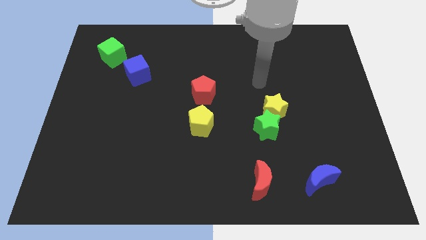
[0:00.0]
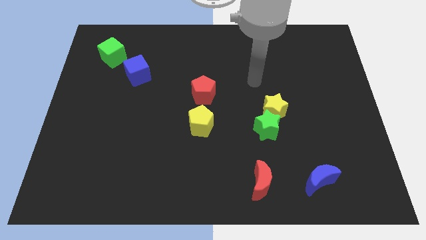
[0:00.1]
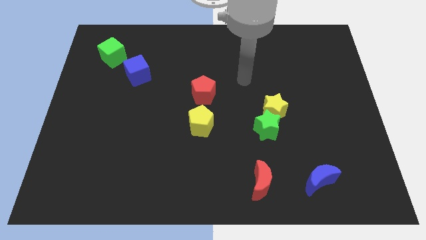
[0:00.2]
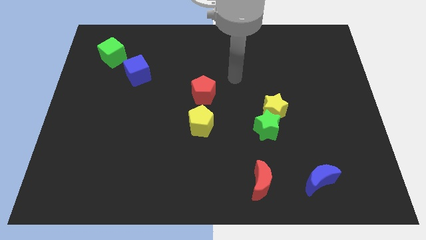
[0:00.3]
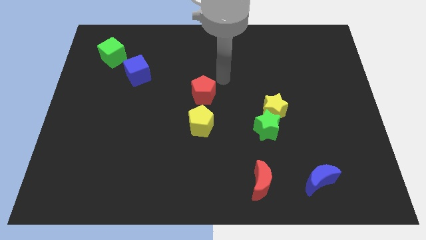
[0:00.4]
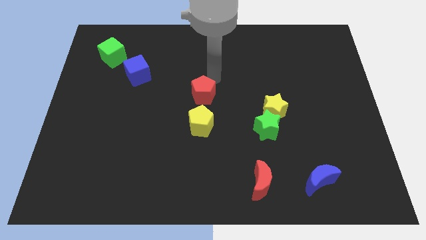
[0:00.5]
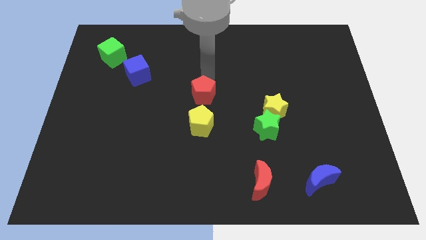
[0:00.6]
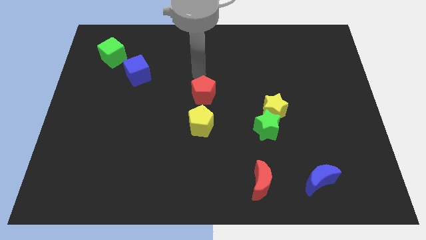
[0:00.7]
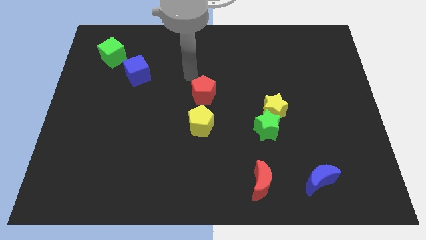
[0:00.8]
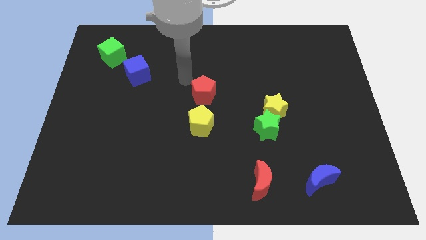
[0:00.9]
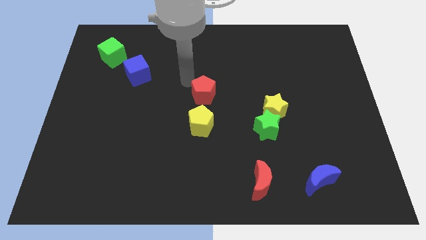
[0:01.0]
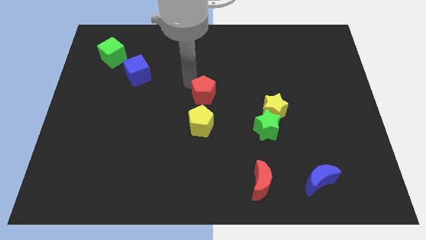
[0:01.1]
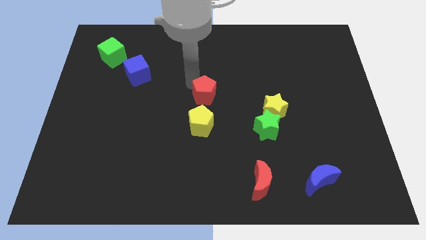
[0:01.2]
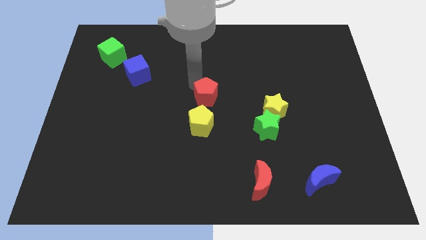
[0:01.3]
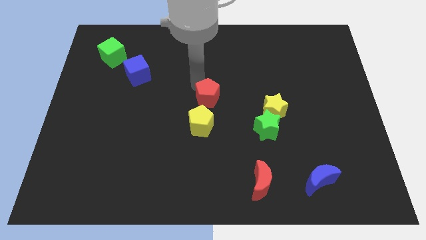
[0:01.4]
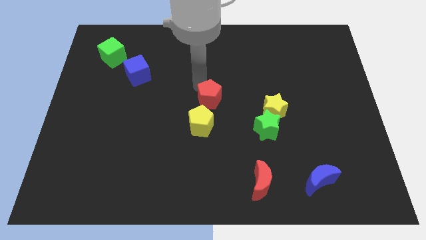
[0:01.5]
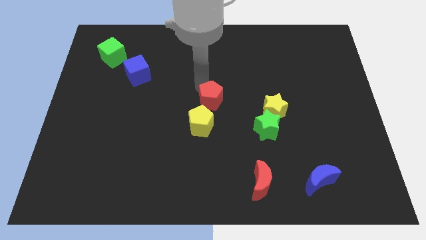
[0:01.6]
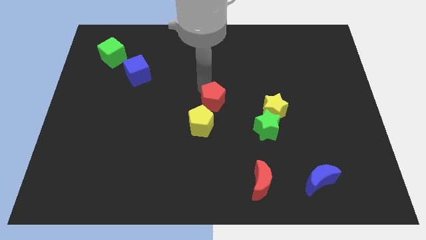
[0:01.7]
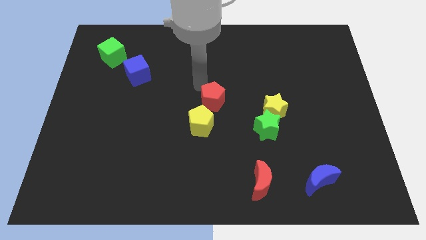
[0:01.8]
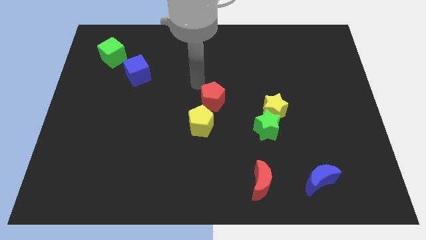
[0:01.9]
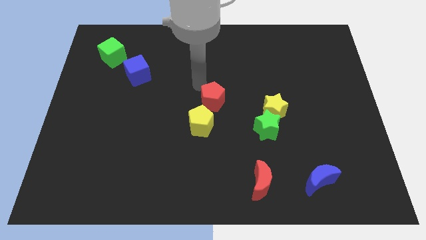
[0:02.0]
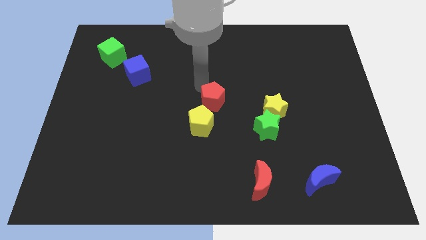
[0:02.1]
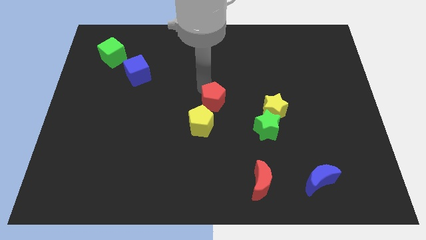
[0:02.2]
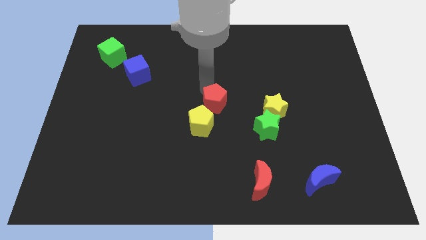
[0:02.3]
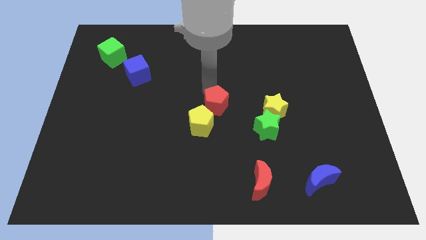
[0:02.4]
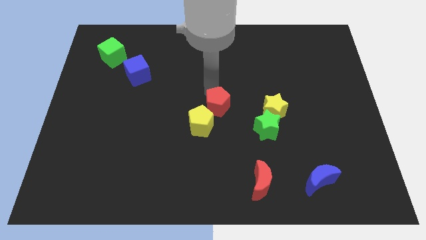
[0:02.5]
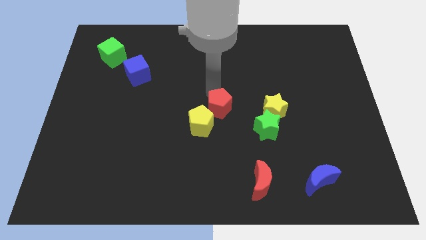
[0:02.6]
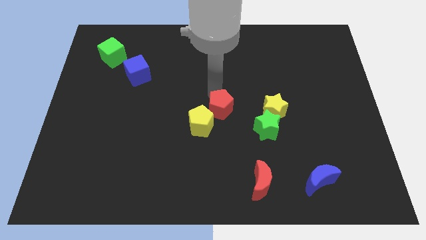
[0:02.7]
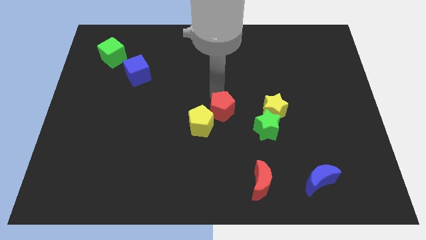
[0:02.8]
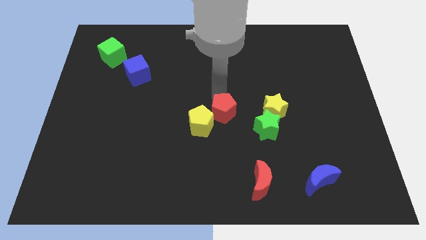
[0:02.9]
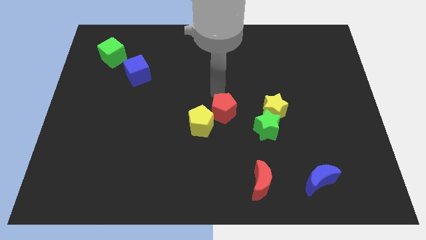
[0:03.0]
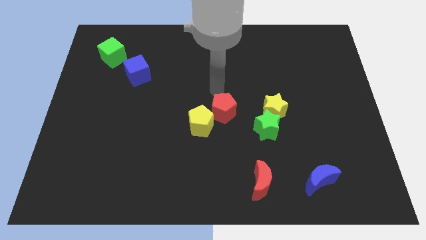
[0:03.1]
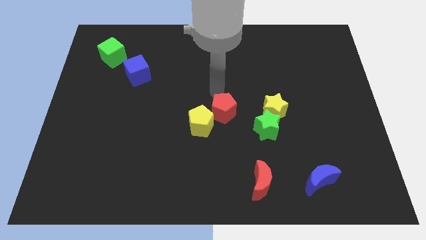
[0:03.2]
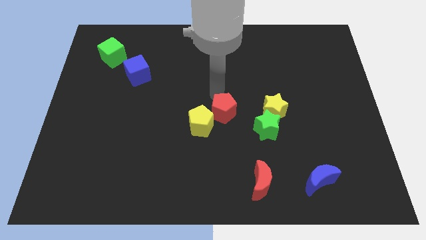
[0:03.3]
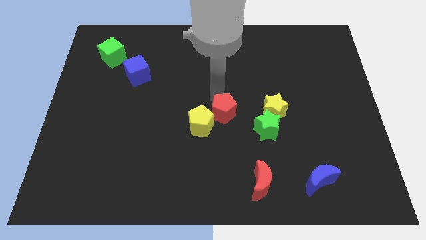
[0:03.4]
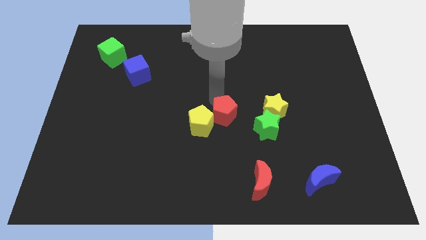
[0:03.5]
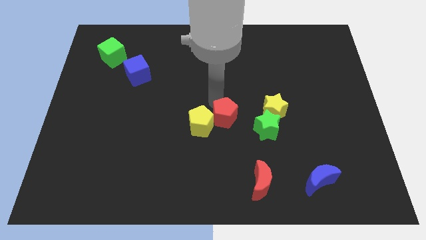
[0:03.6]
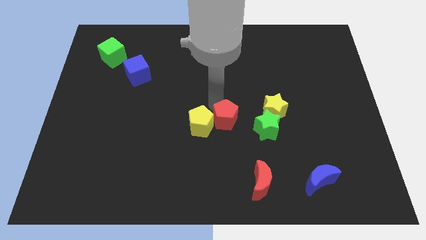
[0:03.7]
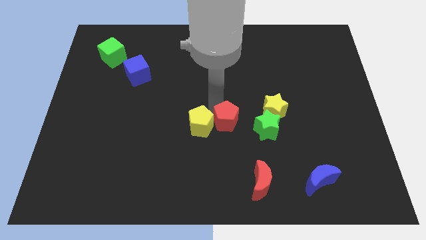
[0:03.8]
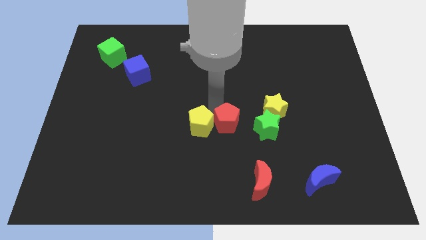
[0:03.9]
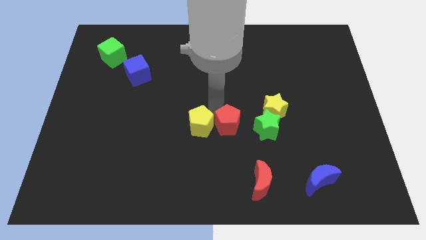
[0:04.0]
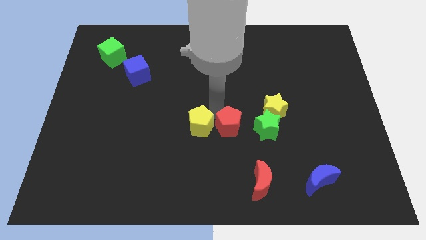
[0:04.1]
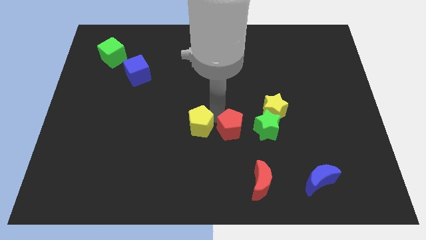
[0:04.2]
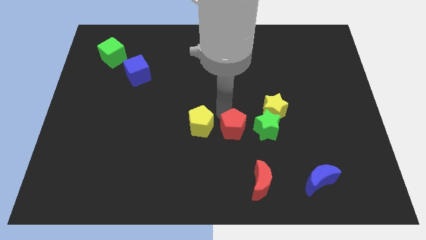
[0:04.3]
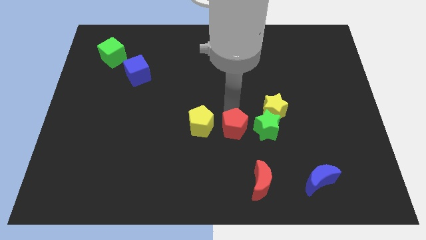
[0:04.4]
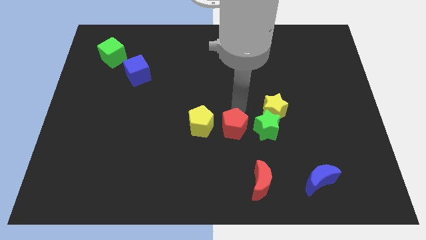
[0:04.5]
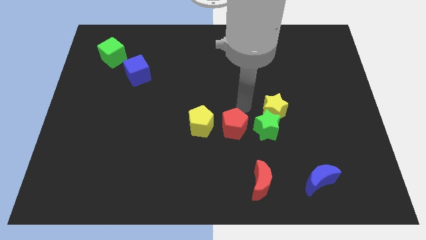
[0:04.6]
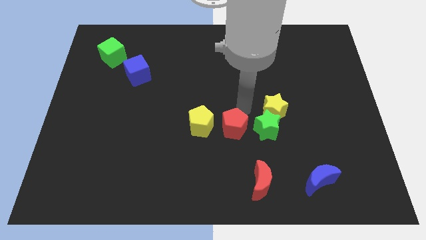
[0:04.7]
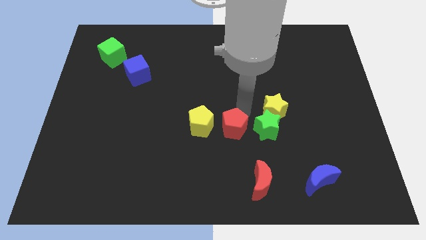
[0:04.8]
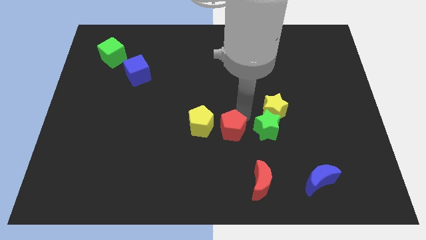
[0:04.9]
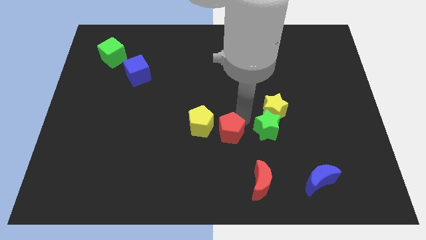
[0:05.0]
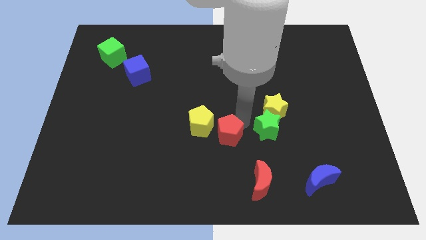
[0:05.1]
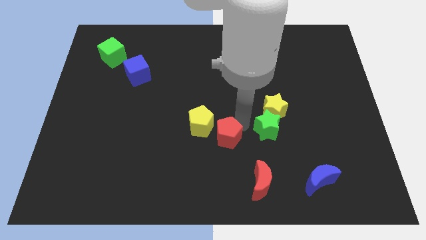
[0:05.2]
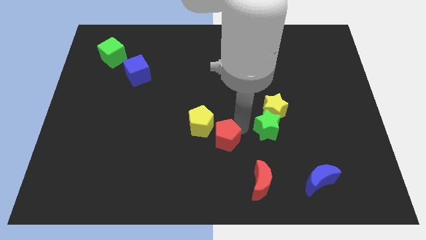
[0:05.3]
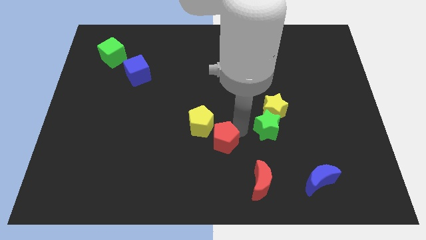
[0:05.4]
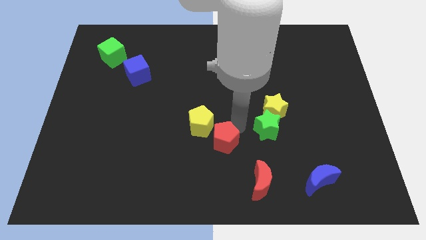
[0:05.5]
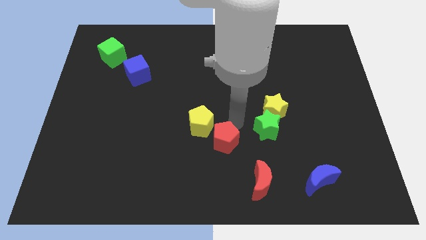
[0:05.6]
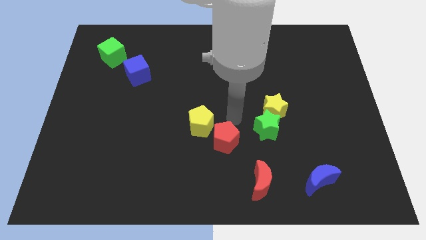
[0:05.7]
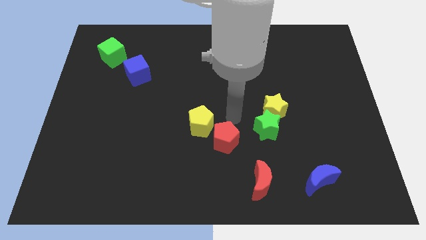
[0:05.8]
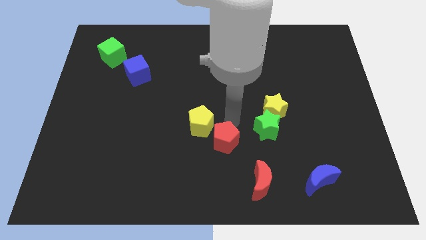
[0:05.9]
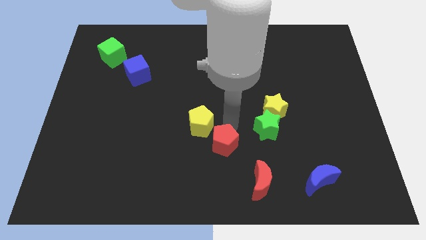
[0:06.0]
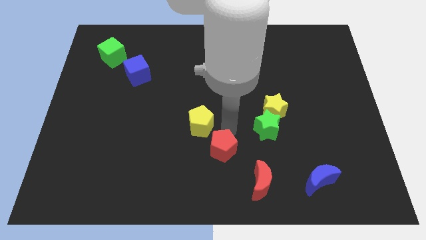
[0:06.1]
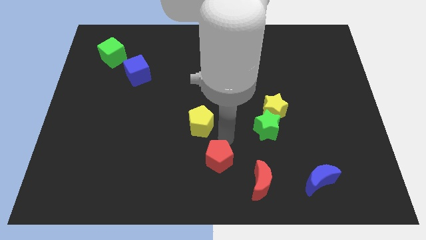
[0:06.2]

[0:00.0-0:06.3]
move the red pentagon to the bottom side
